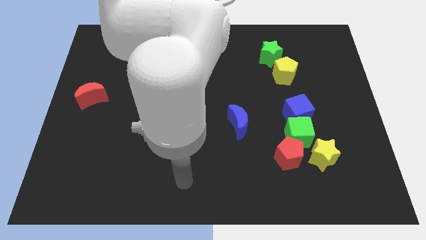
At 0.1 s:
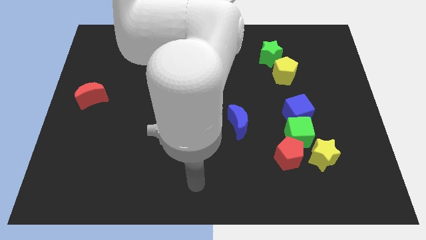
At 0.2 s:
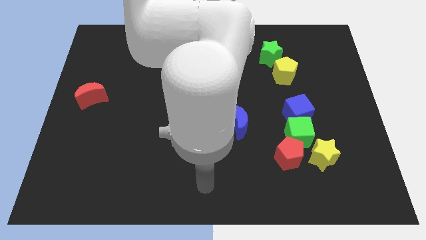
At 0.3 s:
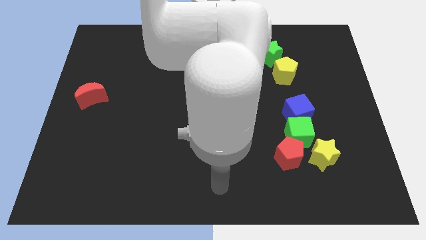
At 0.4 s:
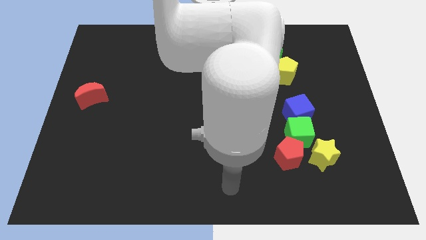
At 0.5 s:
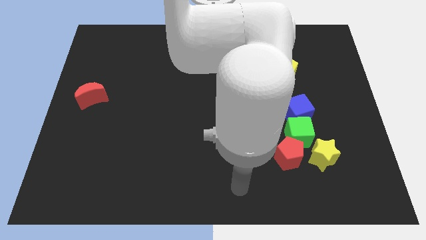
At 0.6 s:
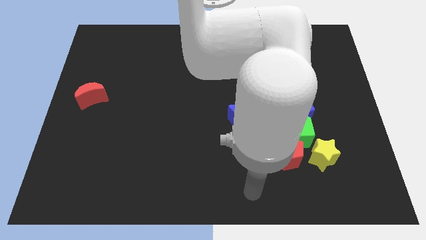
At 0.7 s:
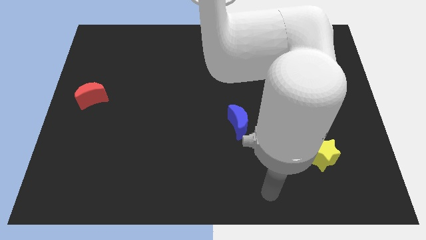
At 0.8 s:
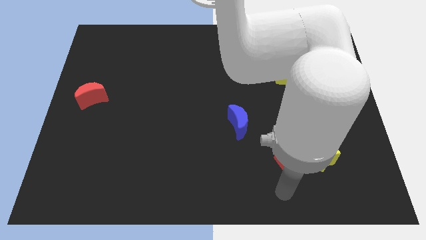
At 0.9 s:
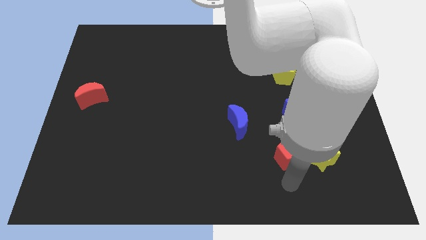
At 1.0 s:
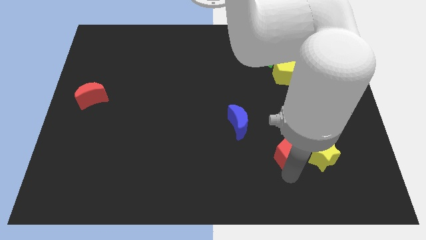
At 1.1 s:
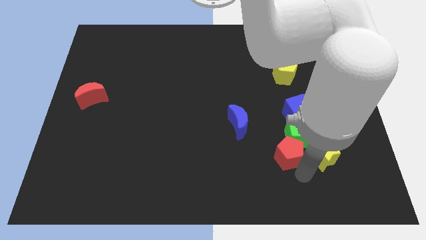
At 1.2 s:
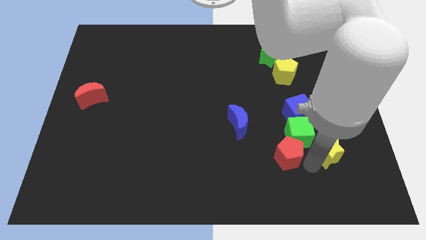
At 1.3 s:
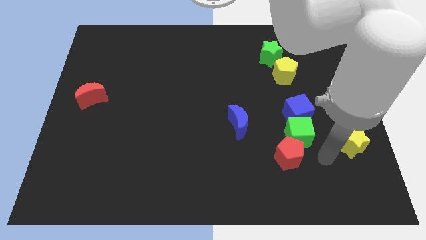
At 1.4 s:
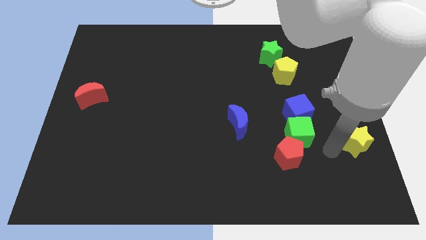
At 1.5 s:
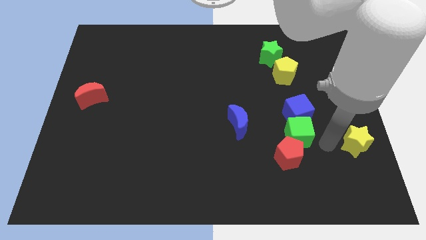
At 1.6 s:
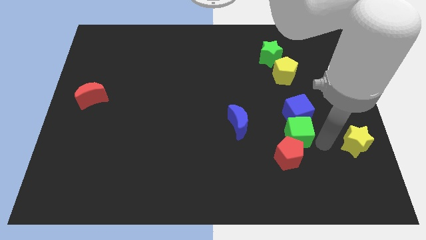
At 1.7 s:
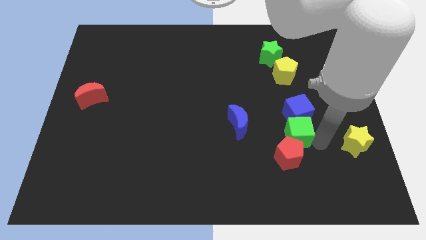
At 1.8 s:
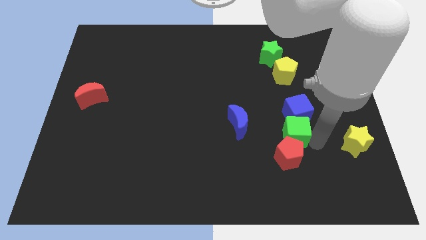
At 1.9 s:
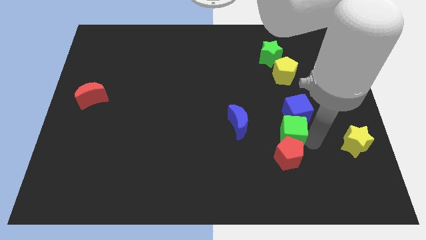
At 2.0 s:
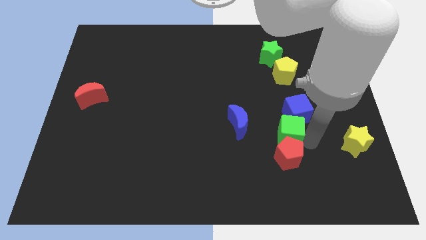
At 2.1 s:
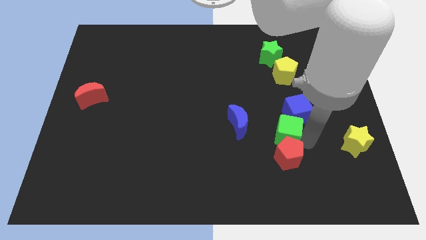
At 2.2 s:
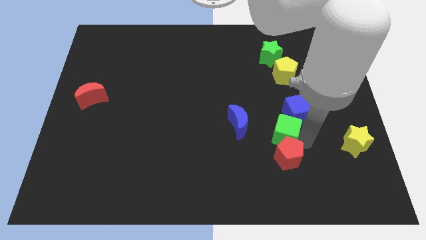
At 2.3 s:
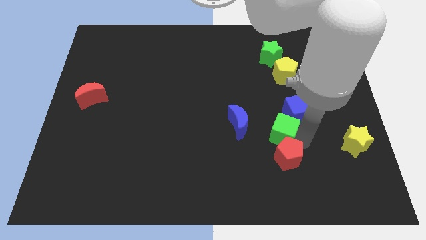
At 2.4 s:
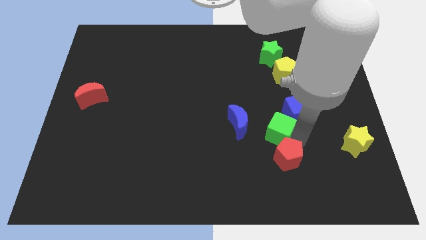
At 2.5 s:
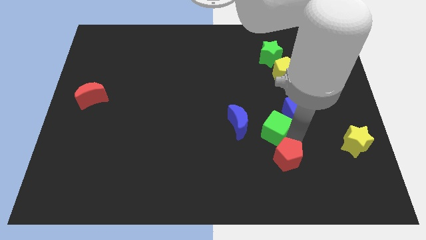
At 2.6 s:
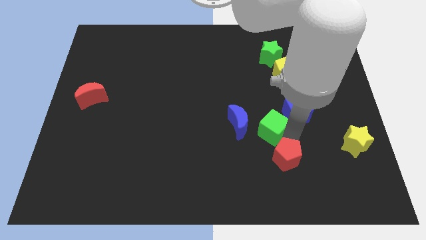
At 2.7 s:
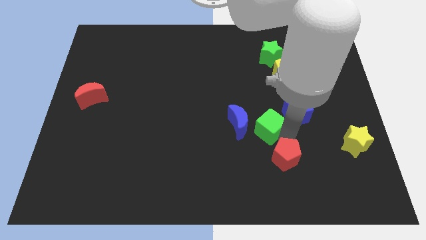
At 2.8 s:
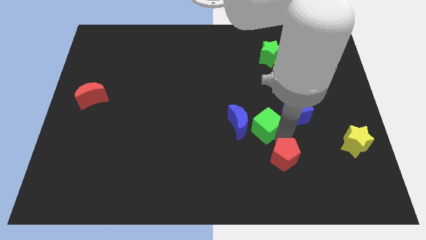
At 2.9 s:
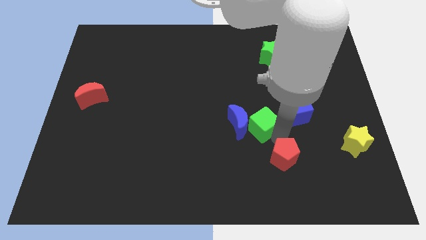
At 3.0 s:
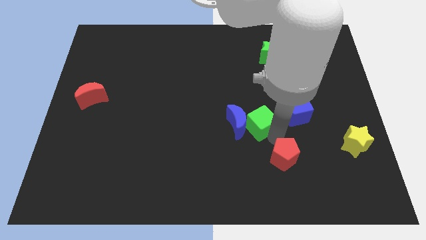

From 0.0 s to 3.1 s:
push the green cube diagonally up and left slightly

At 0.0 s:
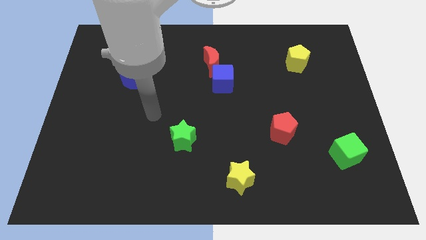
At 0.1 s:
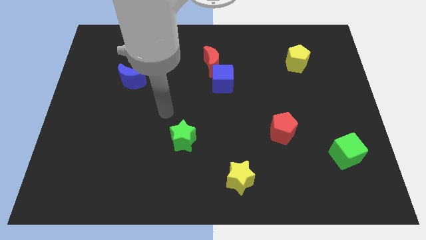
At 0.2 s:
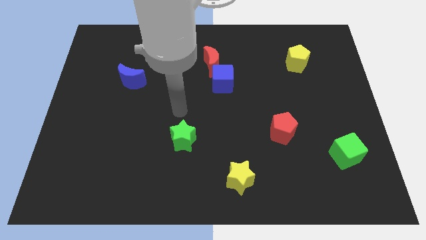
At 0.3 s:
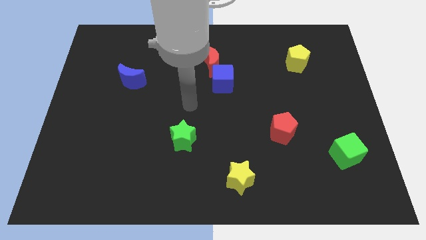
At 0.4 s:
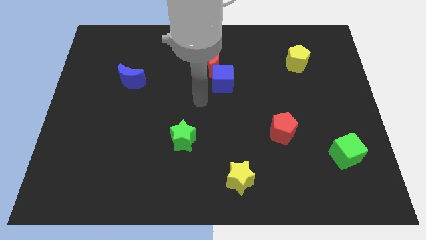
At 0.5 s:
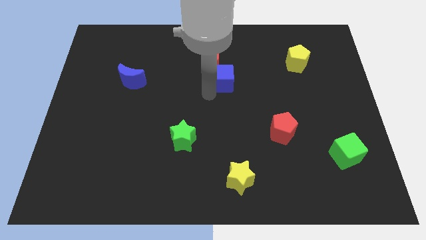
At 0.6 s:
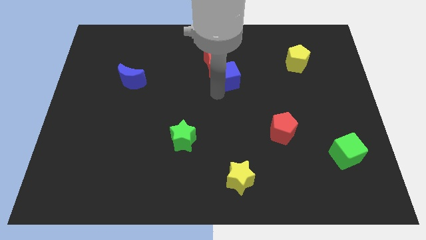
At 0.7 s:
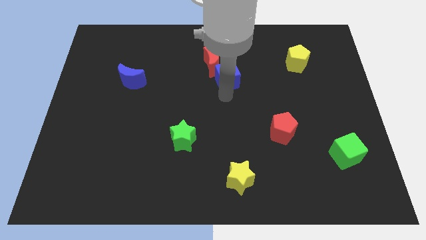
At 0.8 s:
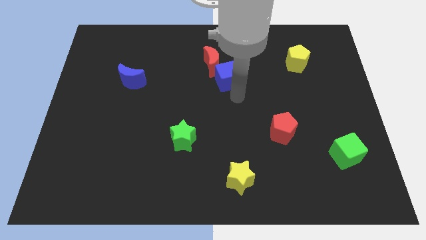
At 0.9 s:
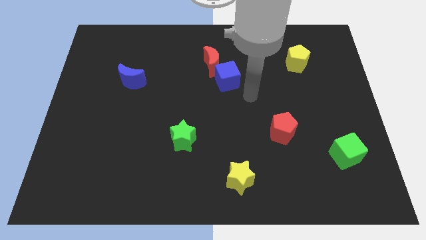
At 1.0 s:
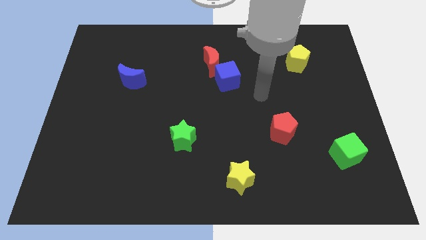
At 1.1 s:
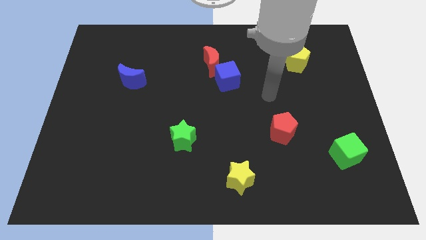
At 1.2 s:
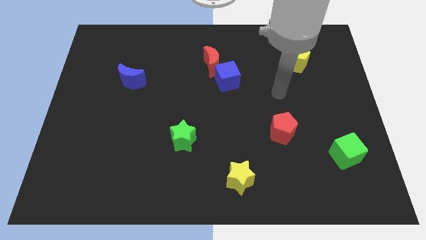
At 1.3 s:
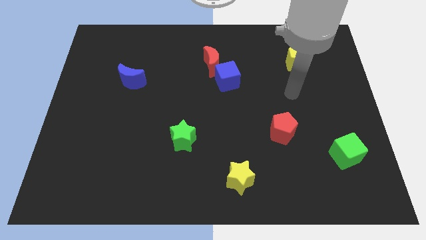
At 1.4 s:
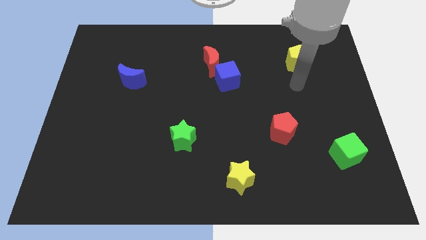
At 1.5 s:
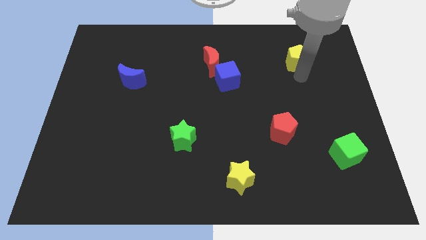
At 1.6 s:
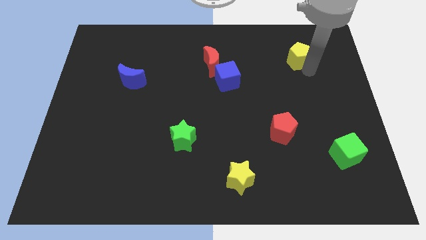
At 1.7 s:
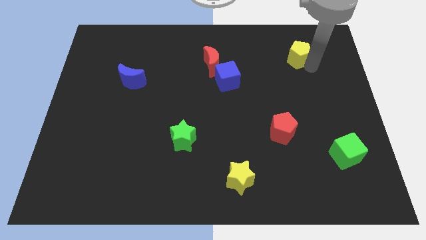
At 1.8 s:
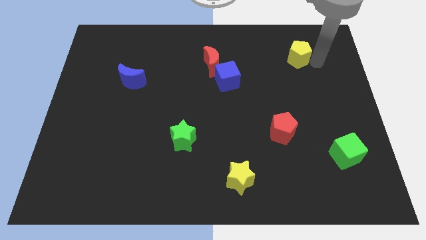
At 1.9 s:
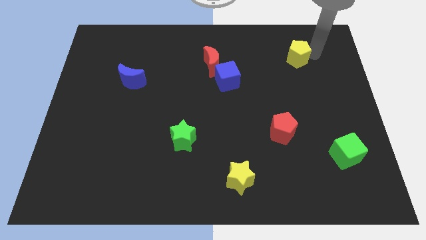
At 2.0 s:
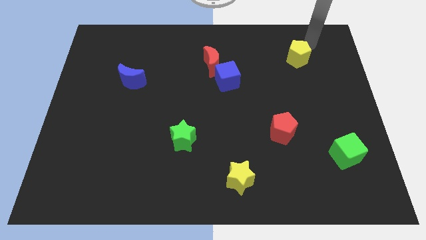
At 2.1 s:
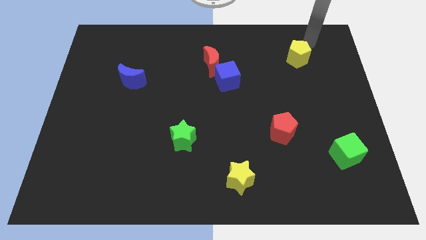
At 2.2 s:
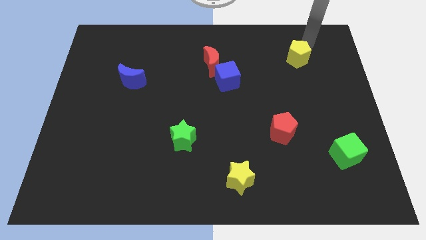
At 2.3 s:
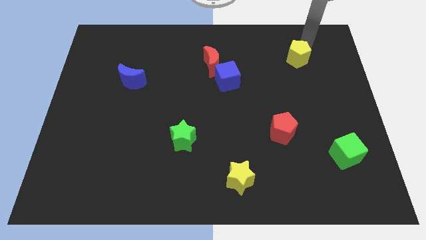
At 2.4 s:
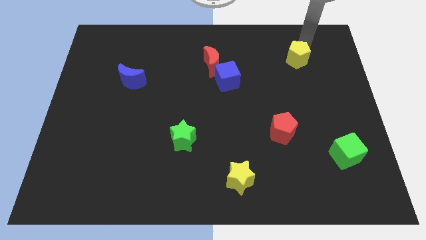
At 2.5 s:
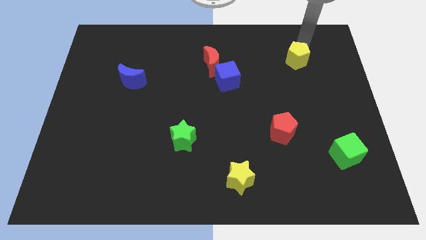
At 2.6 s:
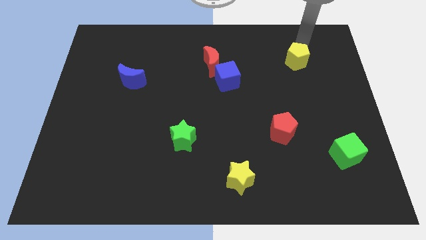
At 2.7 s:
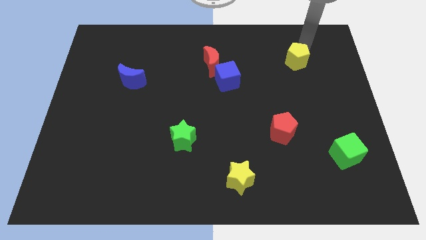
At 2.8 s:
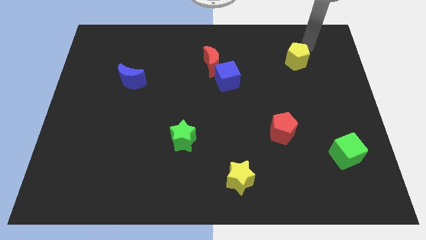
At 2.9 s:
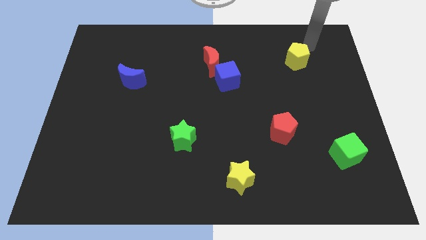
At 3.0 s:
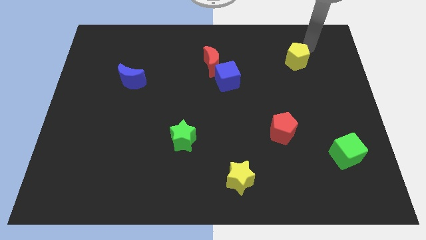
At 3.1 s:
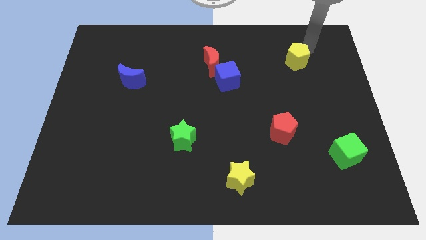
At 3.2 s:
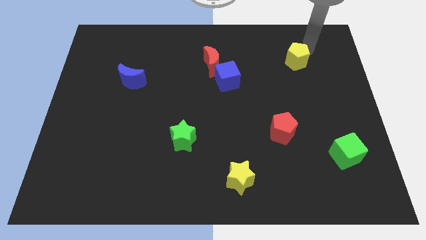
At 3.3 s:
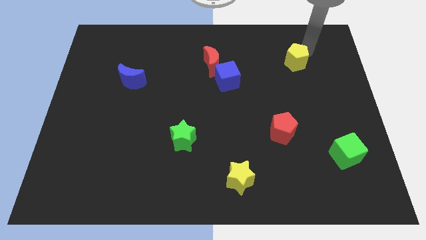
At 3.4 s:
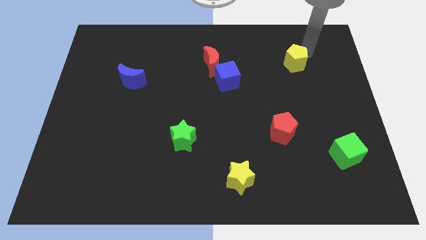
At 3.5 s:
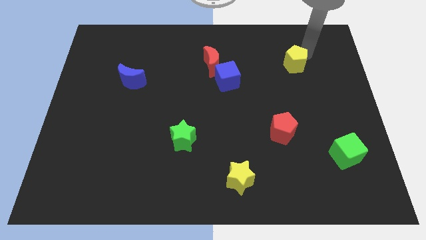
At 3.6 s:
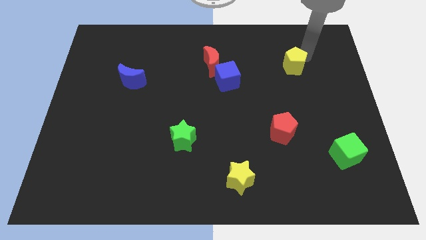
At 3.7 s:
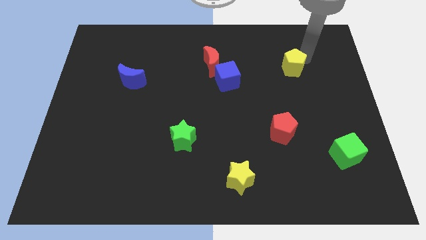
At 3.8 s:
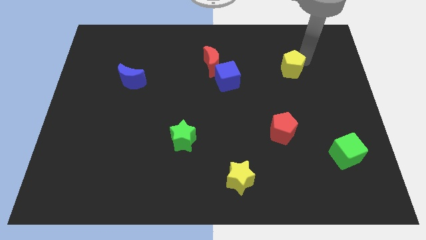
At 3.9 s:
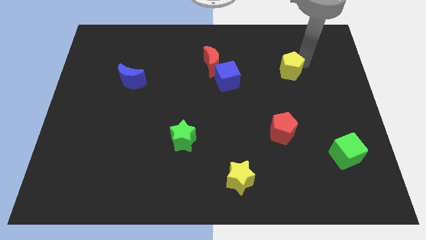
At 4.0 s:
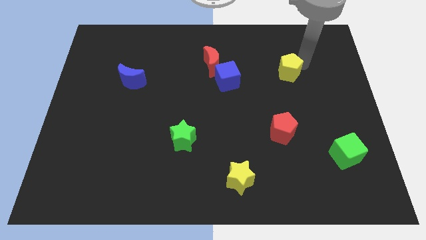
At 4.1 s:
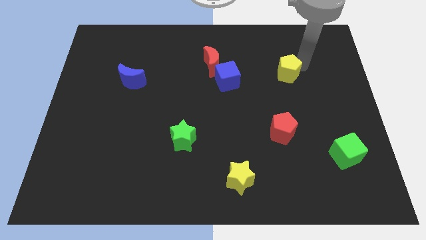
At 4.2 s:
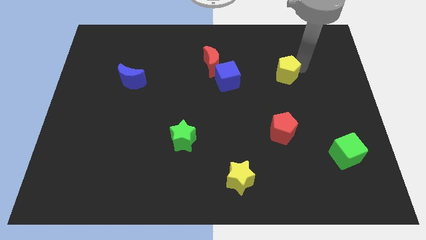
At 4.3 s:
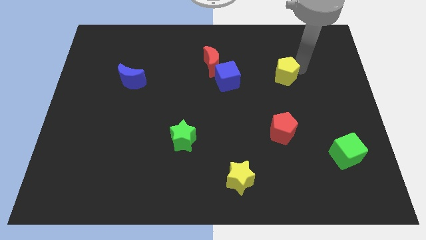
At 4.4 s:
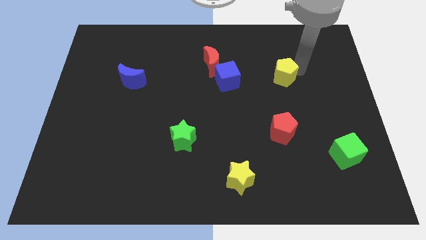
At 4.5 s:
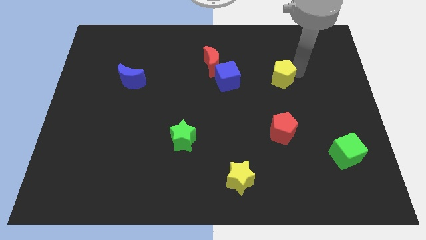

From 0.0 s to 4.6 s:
slightly move the yellow pentagon diagonally downwards and left
